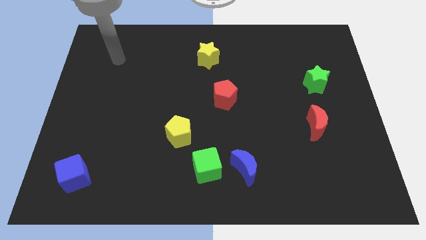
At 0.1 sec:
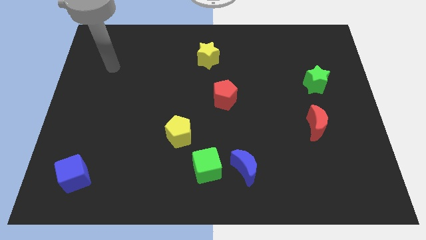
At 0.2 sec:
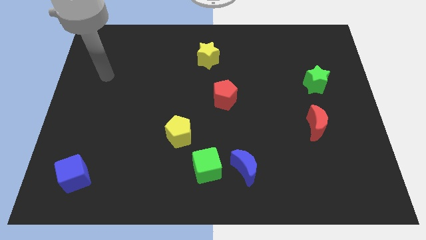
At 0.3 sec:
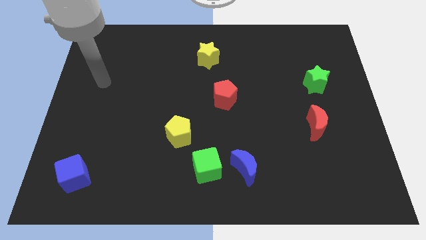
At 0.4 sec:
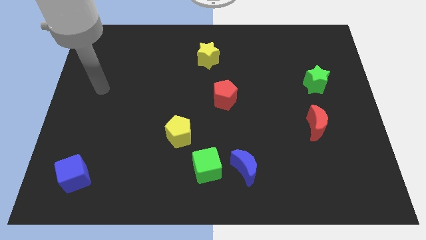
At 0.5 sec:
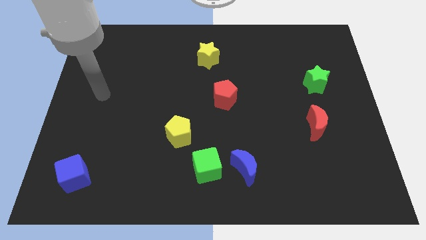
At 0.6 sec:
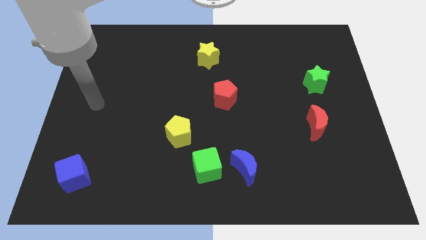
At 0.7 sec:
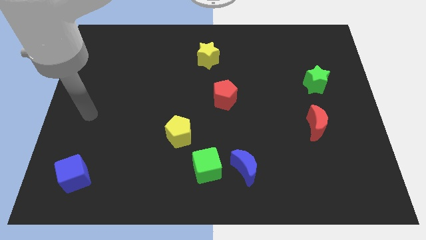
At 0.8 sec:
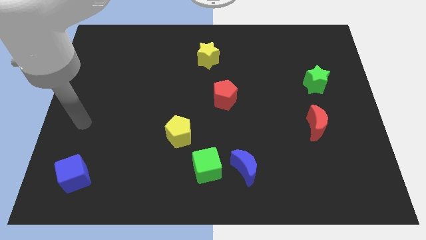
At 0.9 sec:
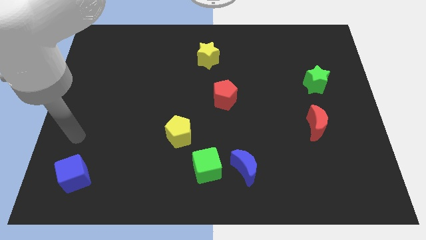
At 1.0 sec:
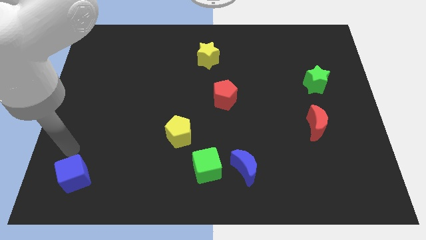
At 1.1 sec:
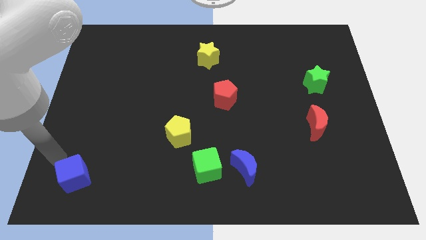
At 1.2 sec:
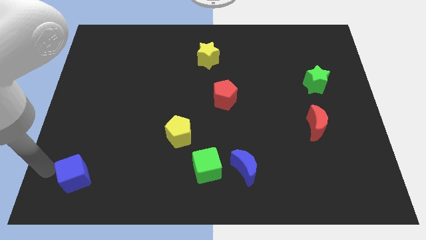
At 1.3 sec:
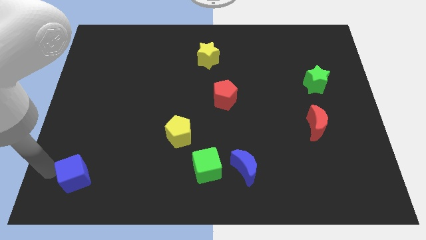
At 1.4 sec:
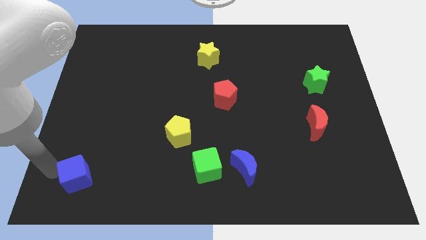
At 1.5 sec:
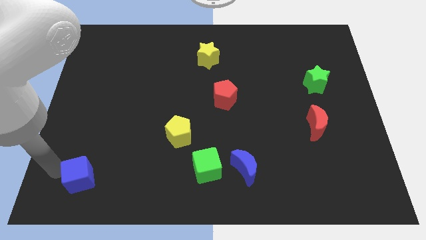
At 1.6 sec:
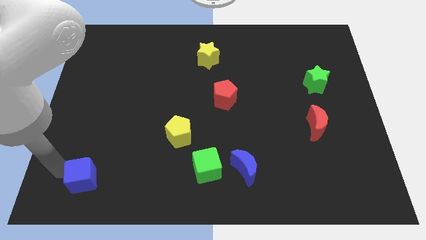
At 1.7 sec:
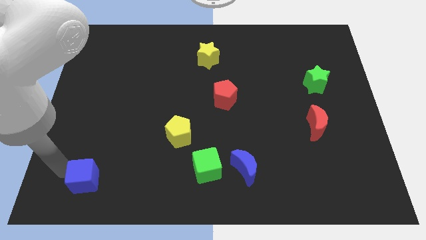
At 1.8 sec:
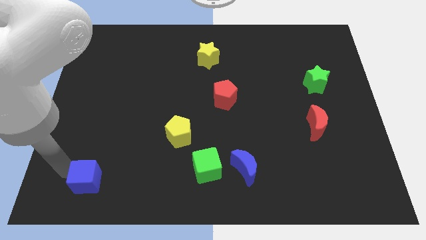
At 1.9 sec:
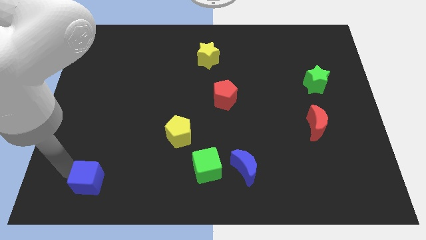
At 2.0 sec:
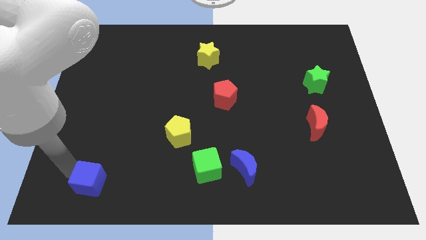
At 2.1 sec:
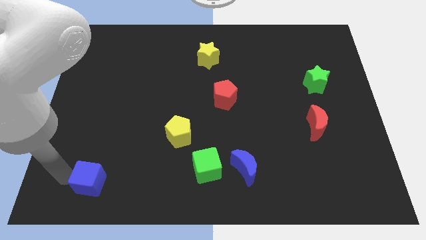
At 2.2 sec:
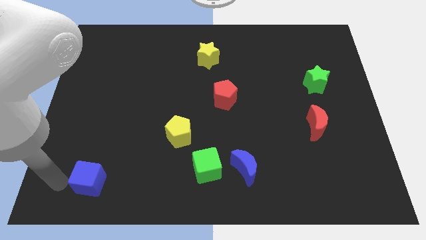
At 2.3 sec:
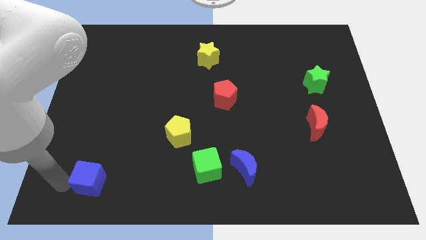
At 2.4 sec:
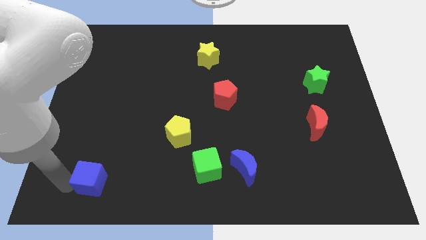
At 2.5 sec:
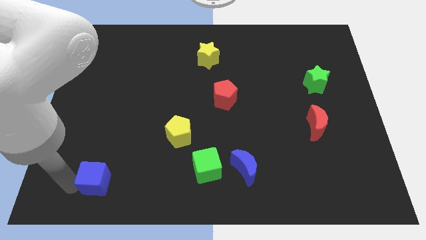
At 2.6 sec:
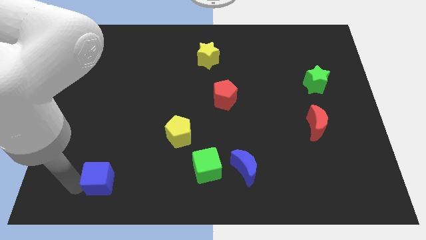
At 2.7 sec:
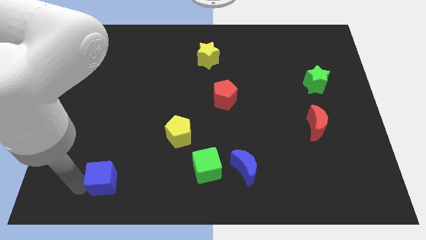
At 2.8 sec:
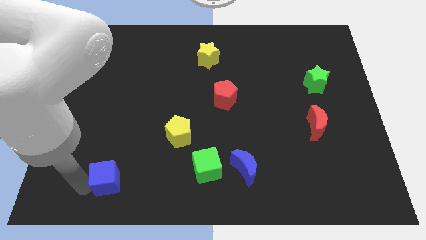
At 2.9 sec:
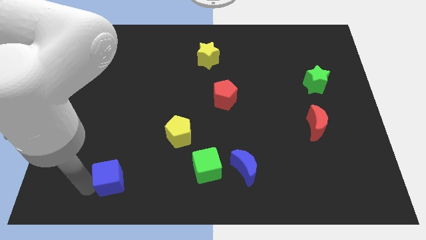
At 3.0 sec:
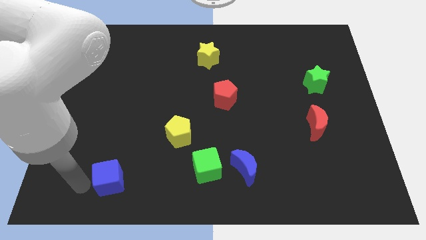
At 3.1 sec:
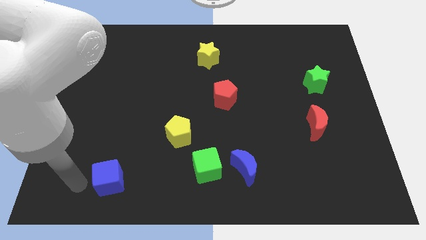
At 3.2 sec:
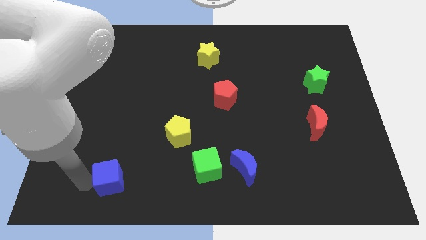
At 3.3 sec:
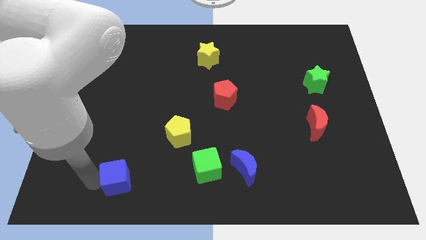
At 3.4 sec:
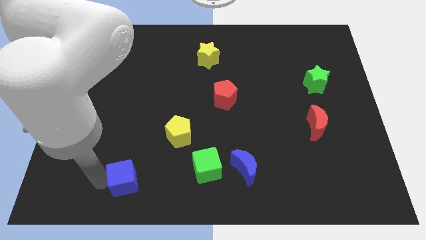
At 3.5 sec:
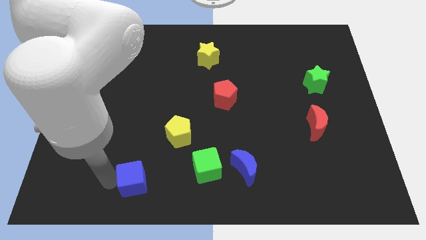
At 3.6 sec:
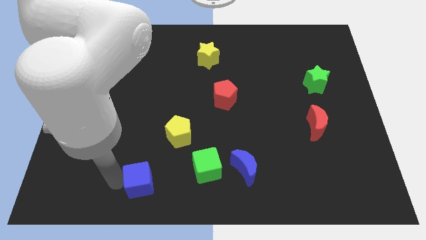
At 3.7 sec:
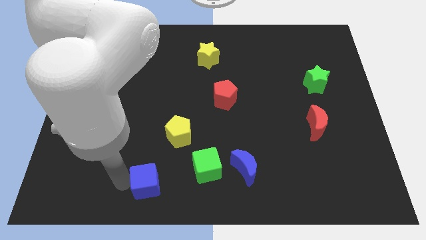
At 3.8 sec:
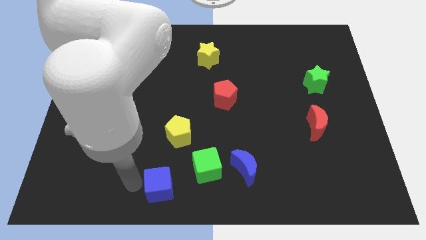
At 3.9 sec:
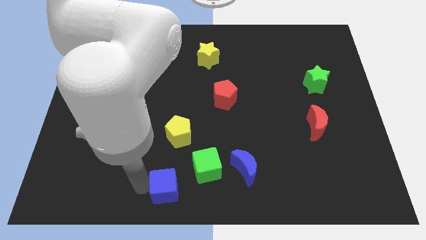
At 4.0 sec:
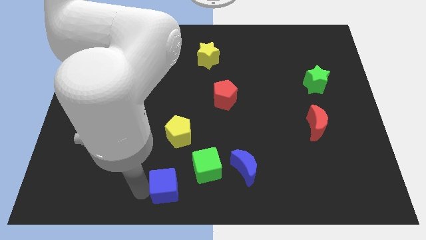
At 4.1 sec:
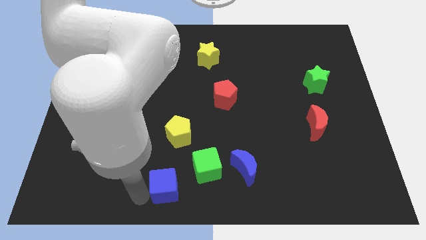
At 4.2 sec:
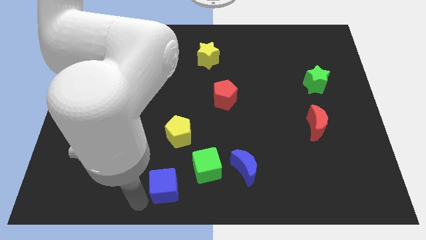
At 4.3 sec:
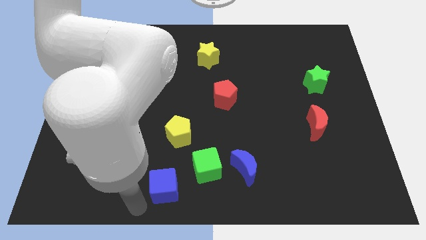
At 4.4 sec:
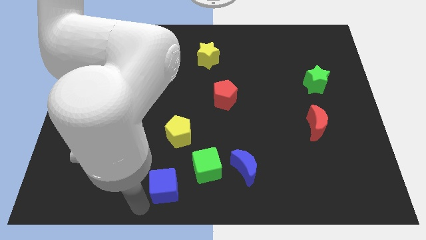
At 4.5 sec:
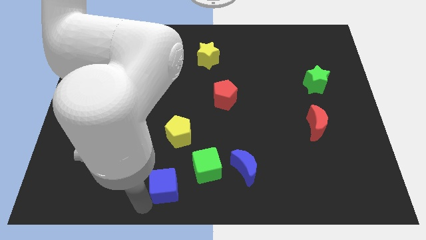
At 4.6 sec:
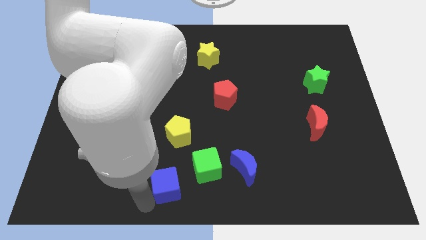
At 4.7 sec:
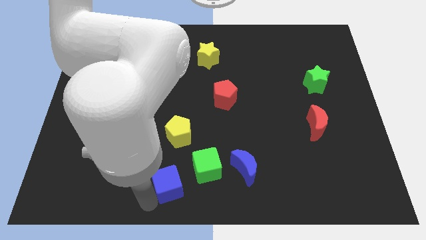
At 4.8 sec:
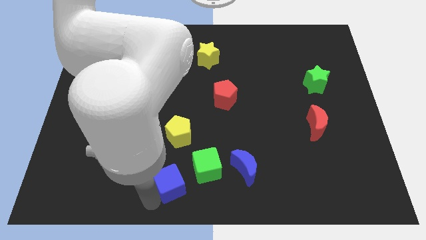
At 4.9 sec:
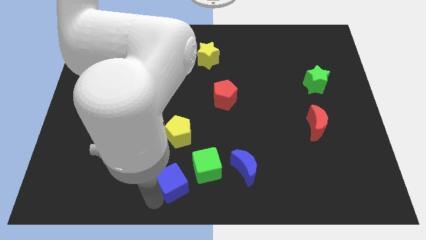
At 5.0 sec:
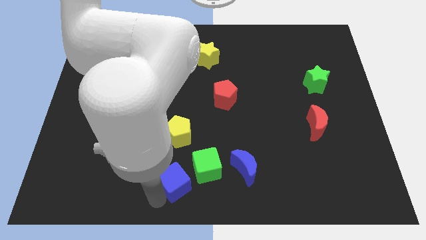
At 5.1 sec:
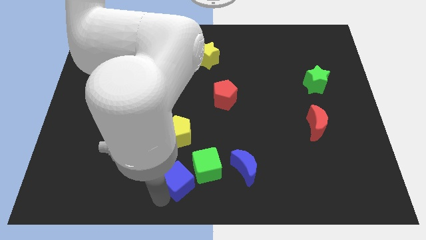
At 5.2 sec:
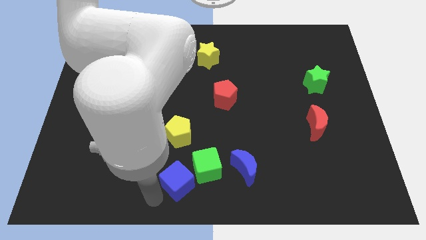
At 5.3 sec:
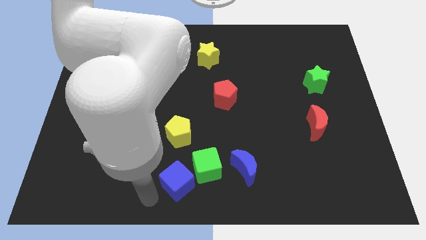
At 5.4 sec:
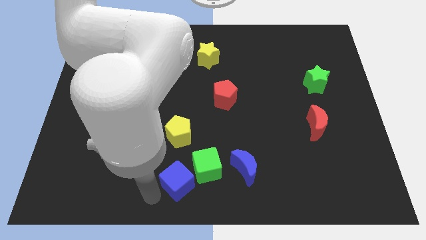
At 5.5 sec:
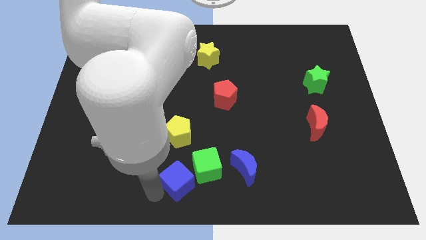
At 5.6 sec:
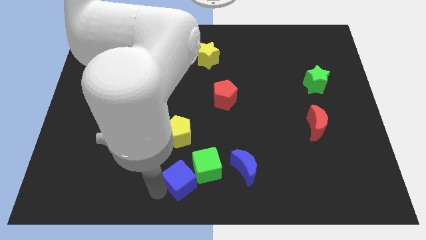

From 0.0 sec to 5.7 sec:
move the blue cube next to the green cube
